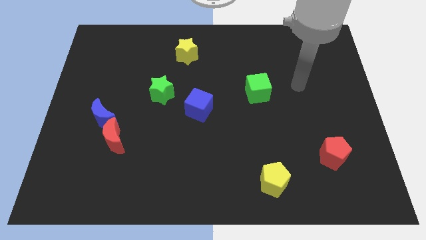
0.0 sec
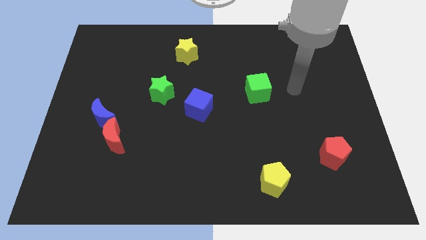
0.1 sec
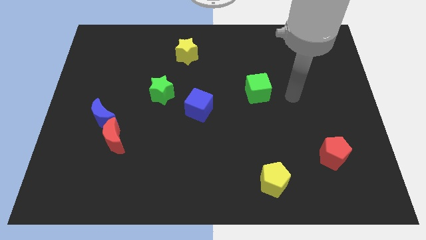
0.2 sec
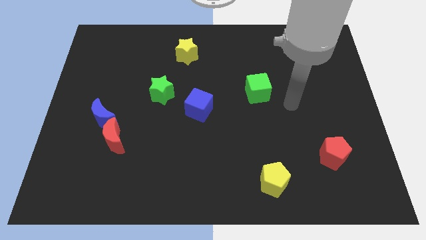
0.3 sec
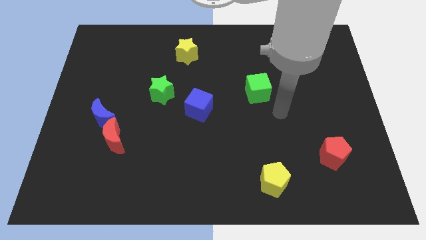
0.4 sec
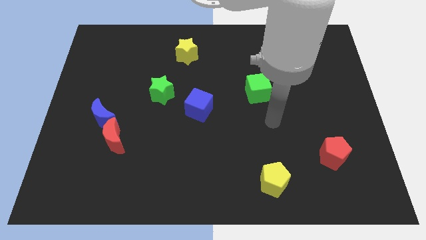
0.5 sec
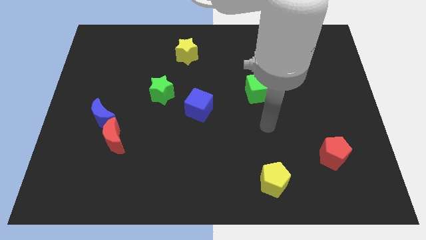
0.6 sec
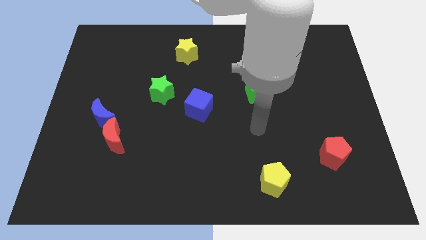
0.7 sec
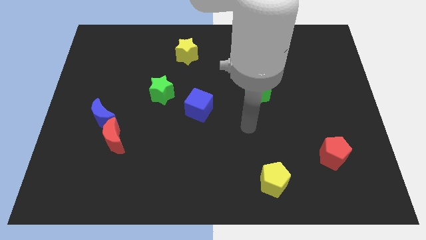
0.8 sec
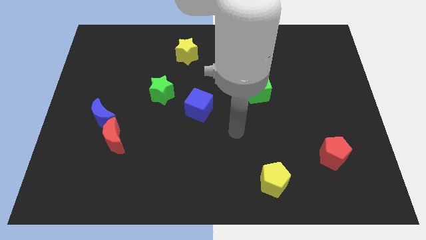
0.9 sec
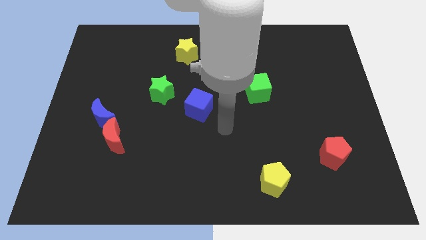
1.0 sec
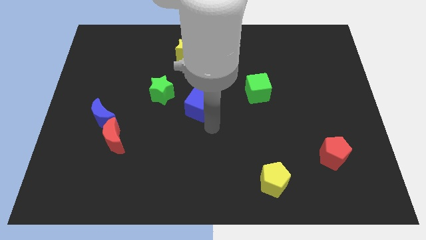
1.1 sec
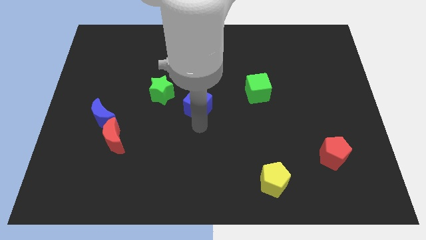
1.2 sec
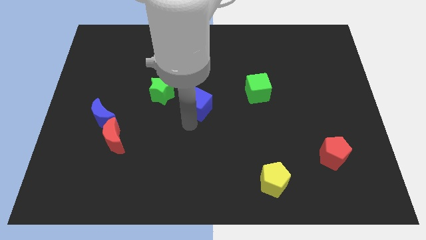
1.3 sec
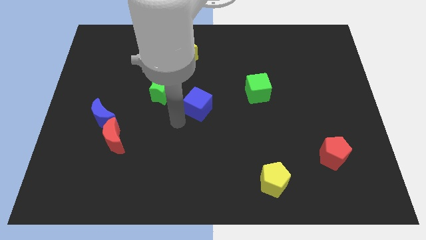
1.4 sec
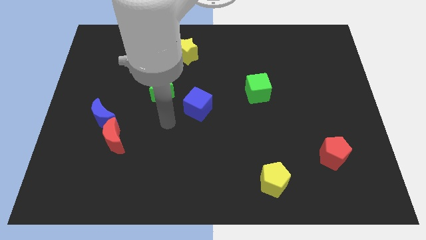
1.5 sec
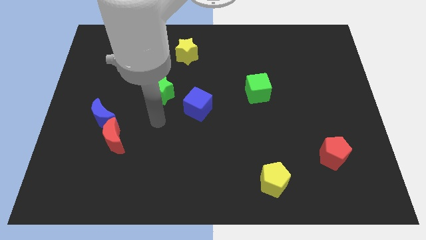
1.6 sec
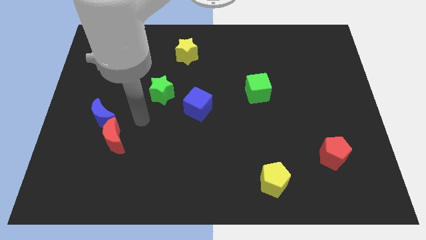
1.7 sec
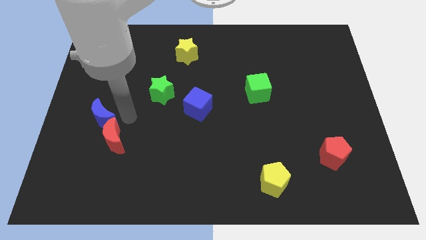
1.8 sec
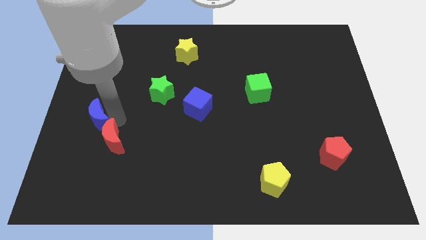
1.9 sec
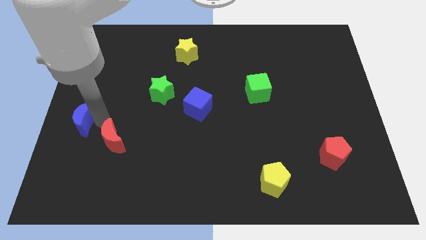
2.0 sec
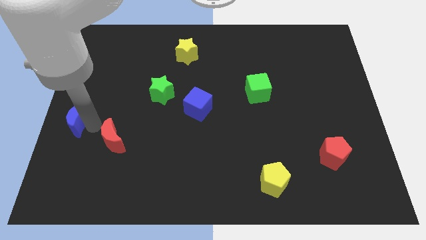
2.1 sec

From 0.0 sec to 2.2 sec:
move the red moon away from the blue moon

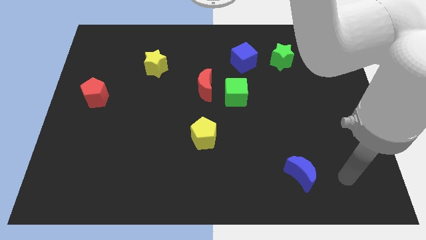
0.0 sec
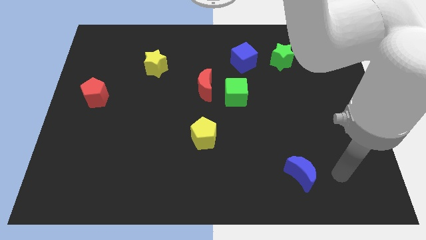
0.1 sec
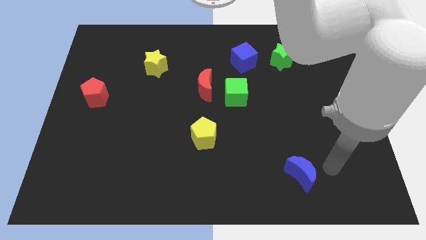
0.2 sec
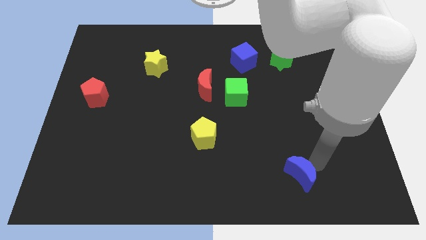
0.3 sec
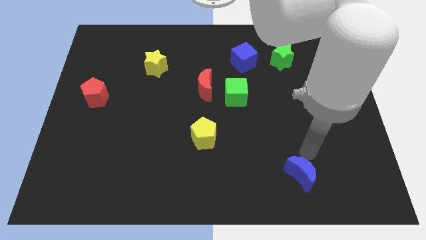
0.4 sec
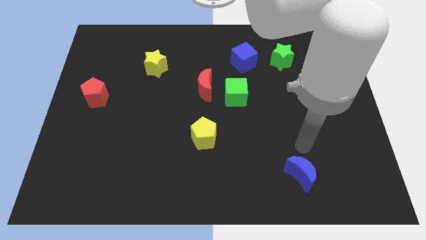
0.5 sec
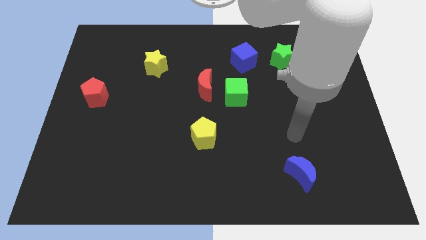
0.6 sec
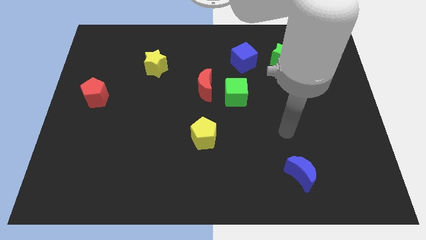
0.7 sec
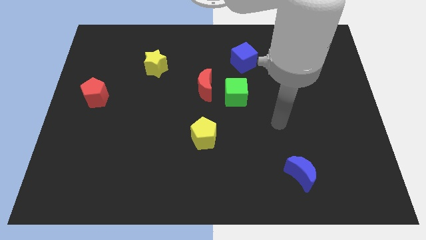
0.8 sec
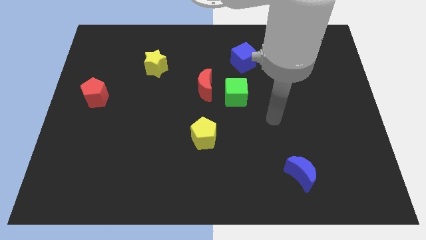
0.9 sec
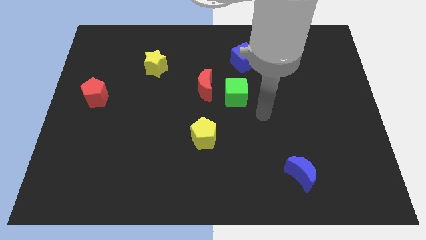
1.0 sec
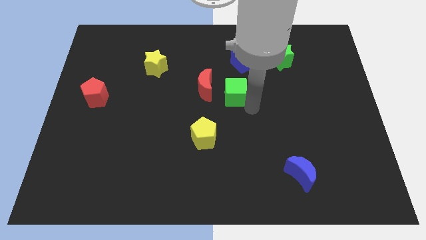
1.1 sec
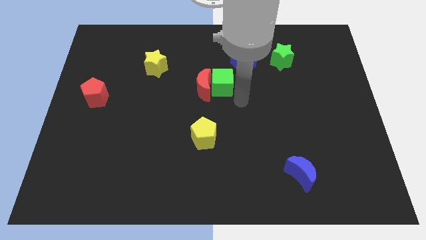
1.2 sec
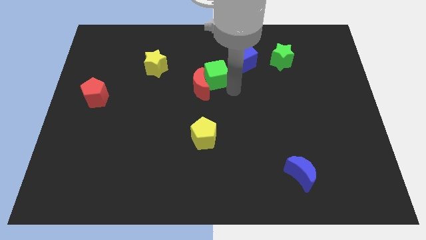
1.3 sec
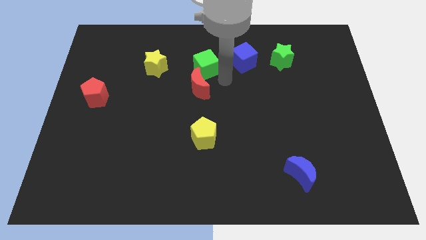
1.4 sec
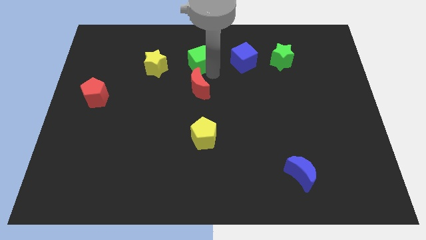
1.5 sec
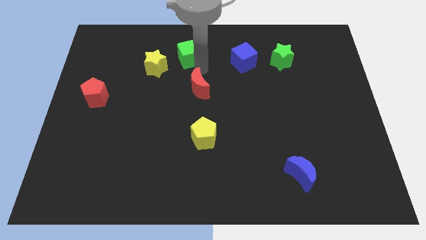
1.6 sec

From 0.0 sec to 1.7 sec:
pull the red moon apart from the green cube

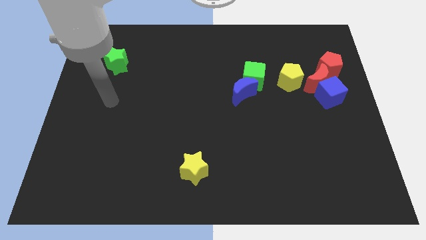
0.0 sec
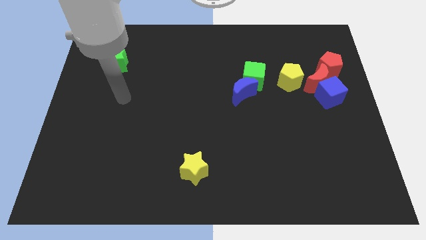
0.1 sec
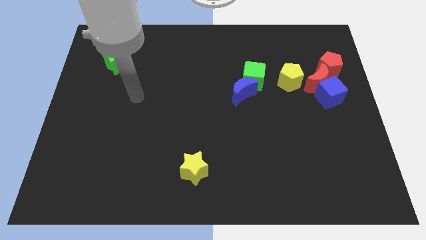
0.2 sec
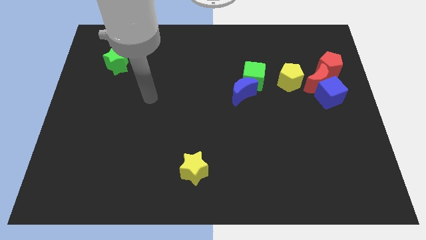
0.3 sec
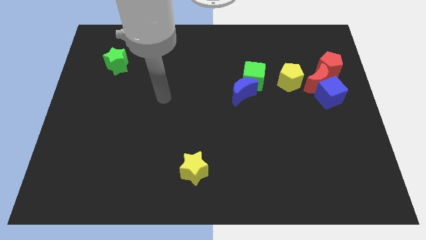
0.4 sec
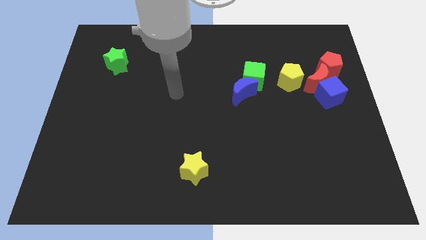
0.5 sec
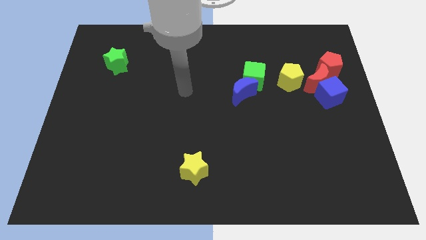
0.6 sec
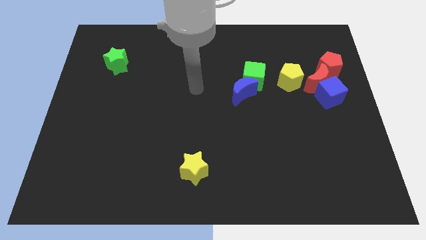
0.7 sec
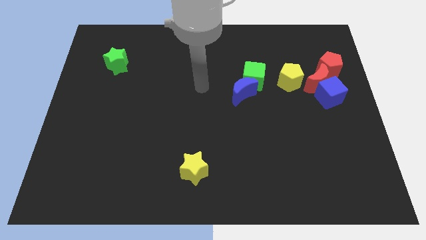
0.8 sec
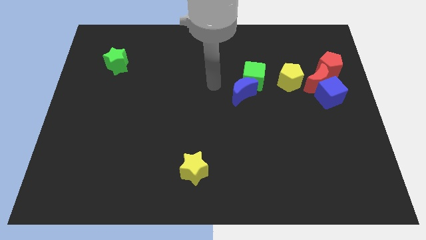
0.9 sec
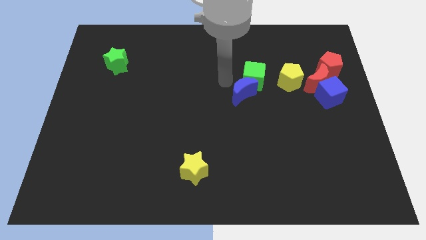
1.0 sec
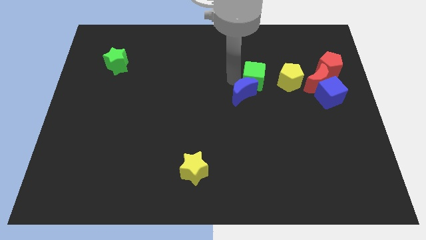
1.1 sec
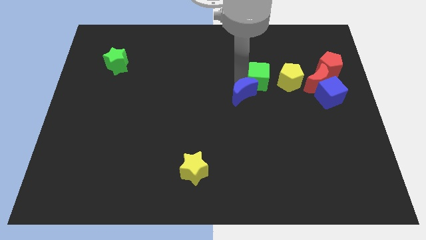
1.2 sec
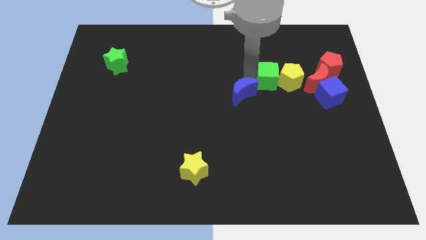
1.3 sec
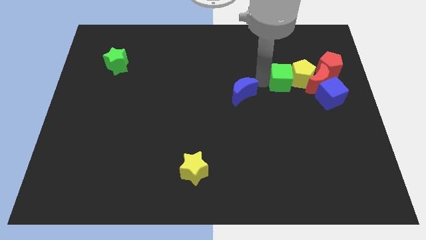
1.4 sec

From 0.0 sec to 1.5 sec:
pull the blue moon apart from the green cube

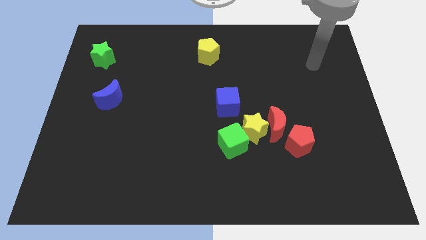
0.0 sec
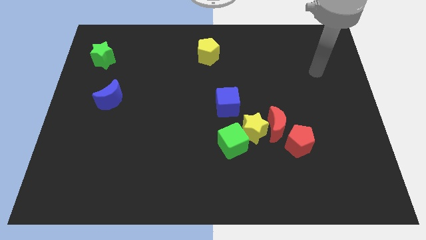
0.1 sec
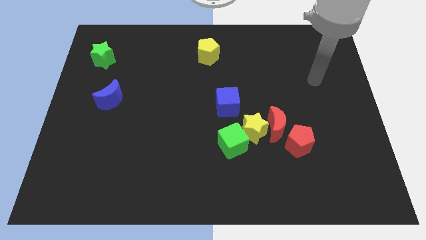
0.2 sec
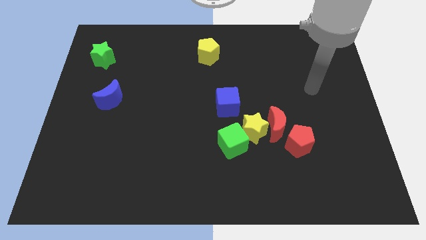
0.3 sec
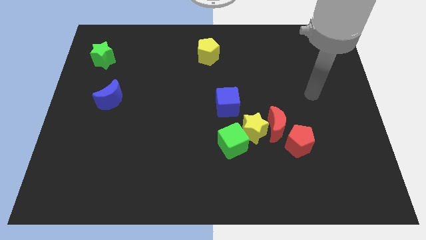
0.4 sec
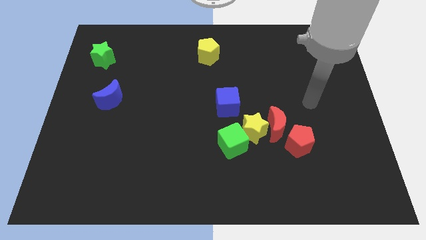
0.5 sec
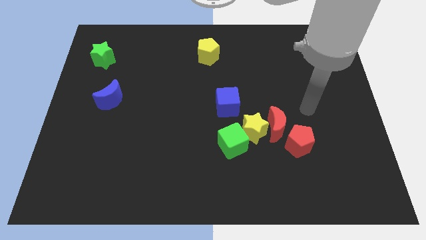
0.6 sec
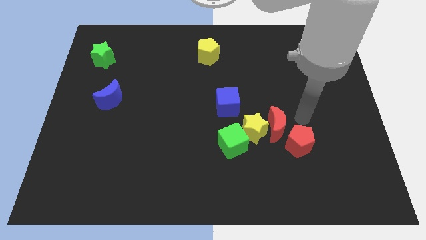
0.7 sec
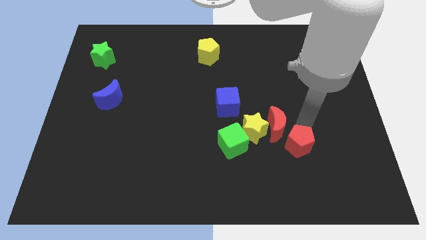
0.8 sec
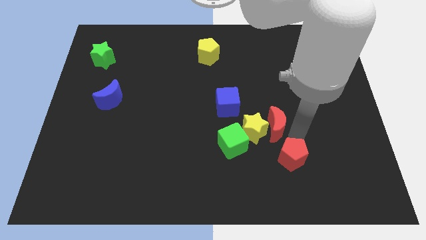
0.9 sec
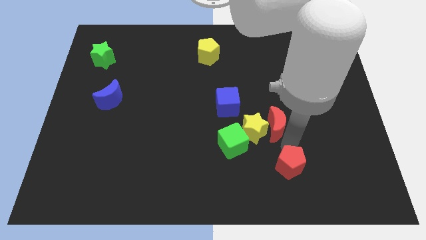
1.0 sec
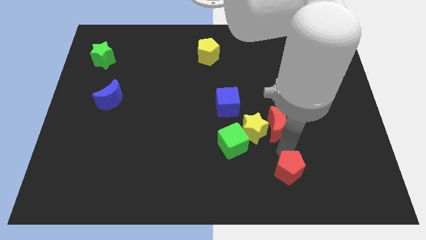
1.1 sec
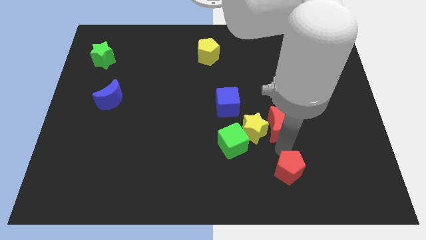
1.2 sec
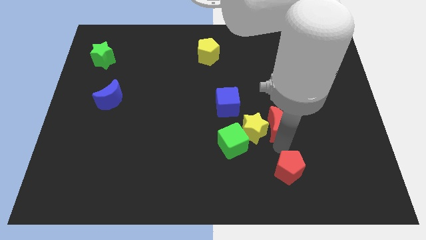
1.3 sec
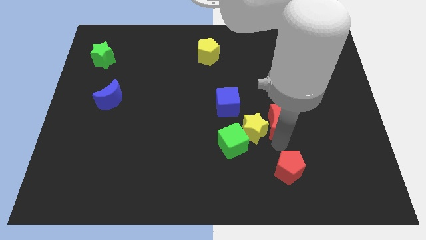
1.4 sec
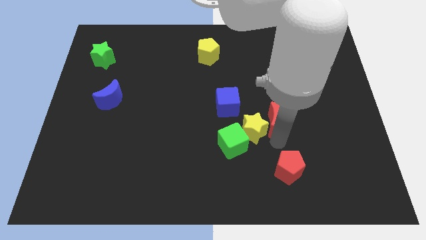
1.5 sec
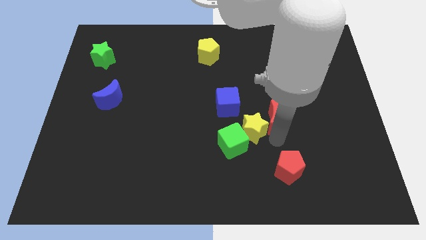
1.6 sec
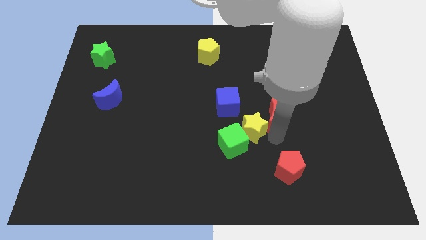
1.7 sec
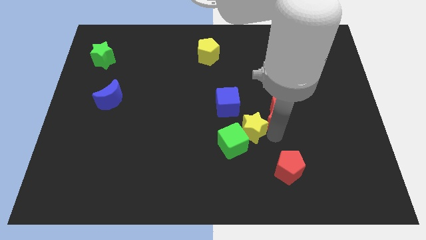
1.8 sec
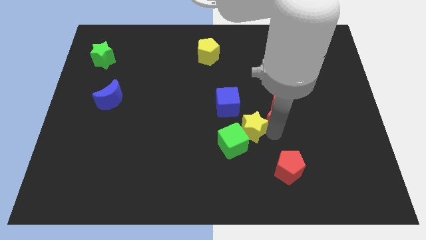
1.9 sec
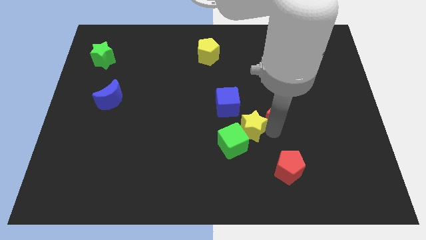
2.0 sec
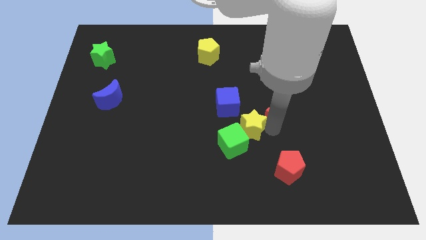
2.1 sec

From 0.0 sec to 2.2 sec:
pull the red moon apart from the yellow star and red pentagon

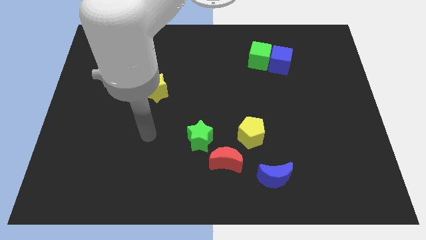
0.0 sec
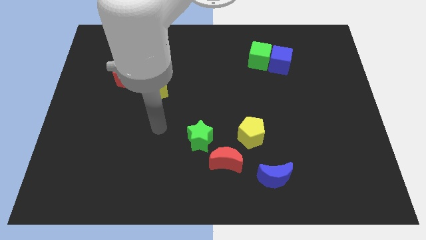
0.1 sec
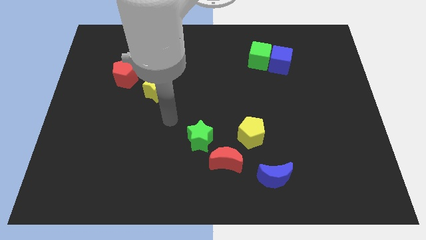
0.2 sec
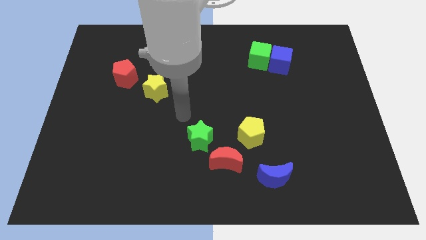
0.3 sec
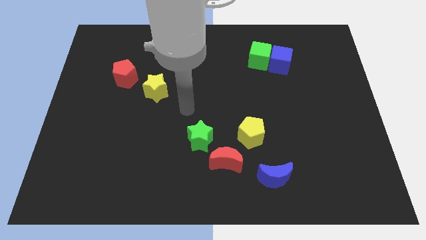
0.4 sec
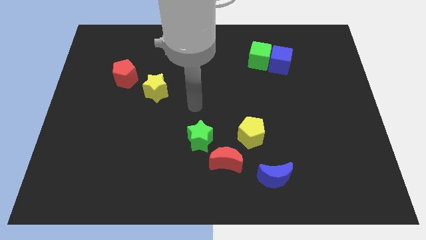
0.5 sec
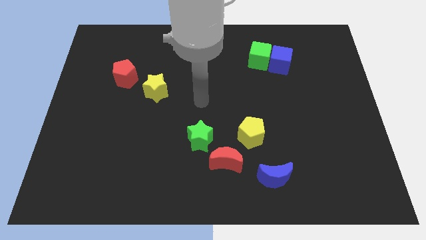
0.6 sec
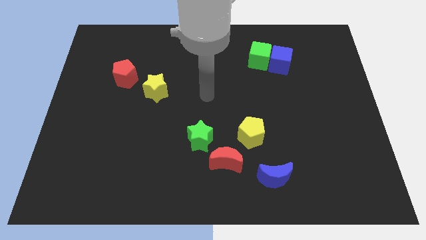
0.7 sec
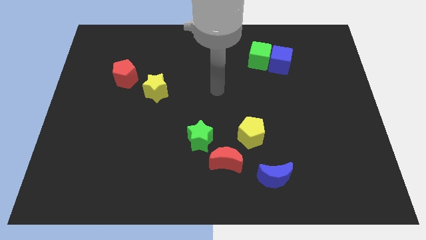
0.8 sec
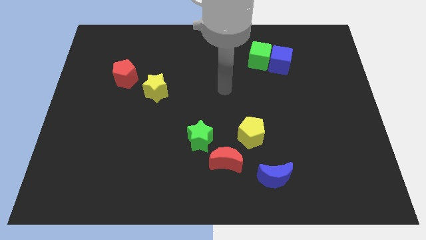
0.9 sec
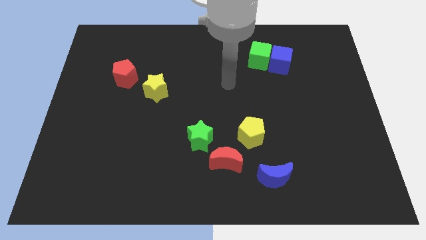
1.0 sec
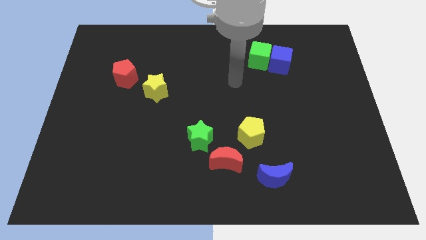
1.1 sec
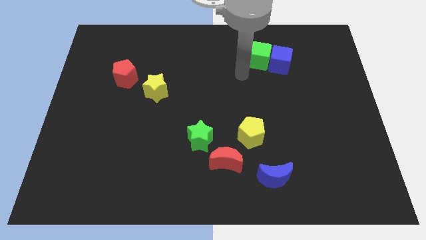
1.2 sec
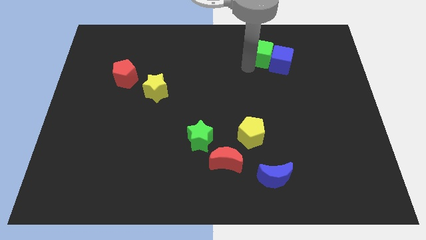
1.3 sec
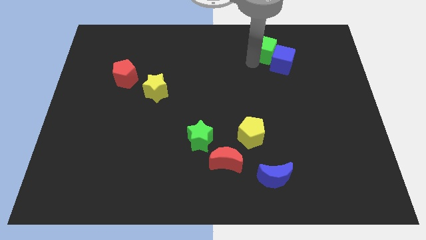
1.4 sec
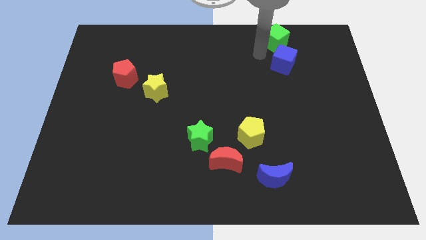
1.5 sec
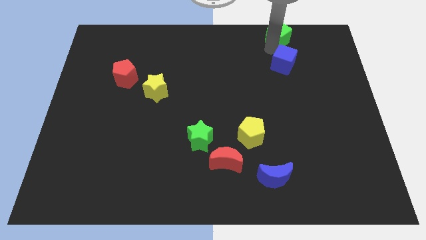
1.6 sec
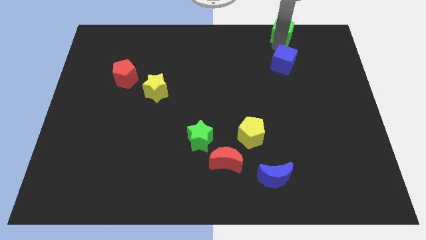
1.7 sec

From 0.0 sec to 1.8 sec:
move the blue cube away from the green cube
